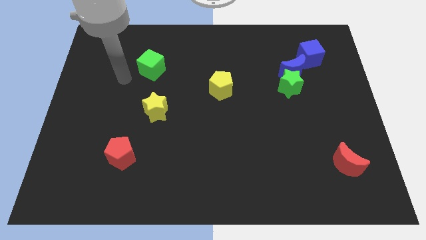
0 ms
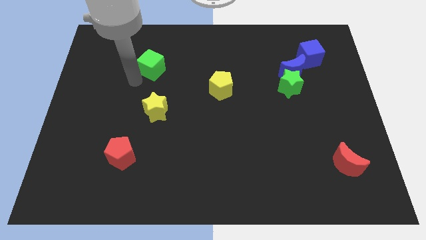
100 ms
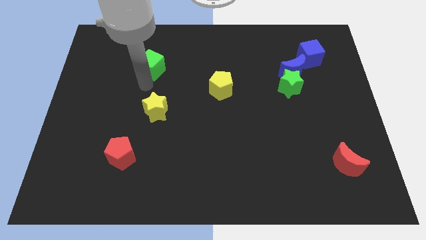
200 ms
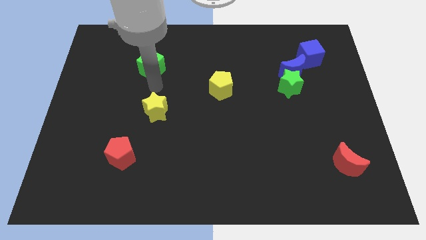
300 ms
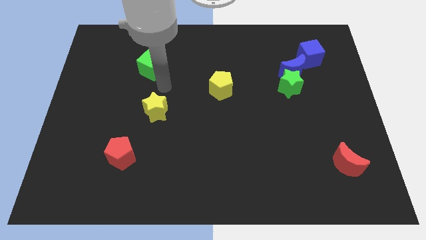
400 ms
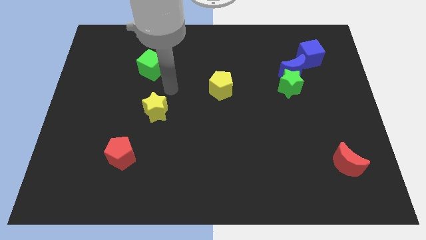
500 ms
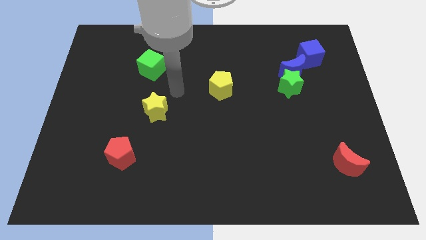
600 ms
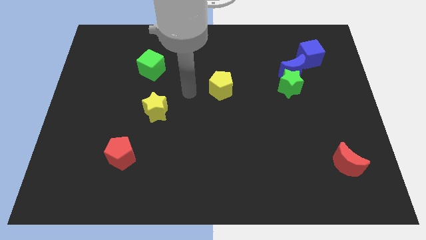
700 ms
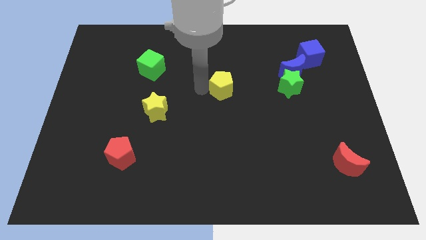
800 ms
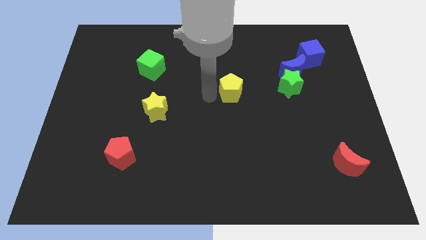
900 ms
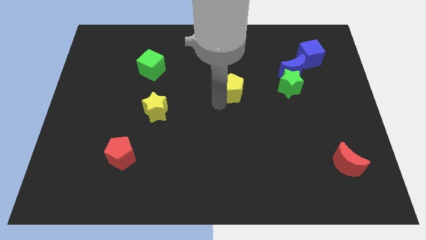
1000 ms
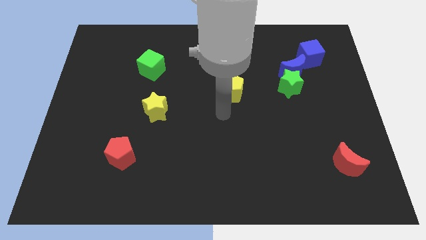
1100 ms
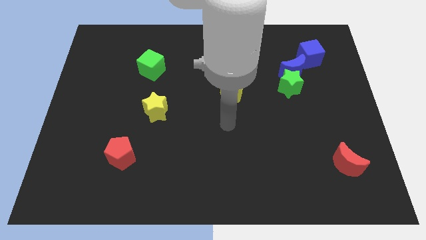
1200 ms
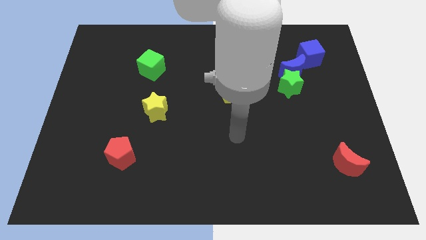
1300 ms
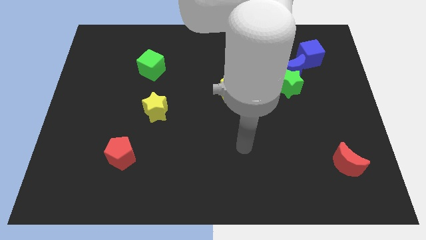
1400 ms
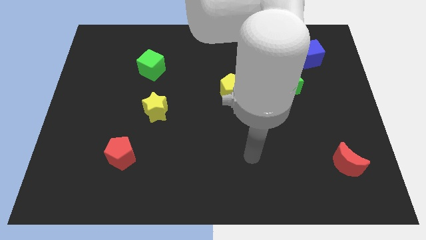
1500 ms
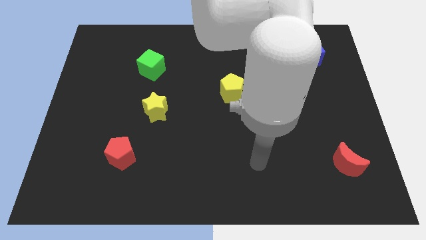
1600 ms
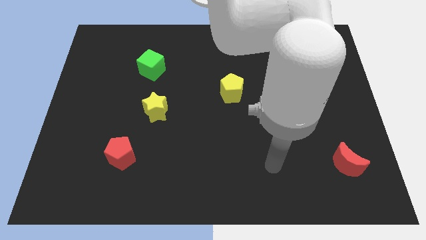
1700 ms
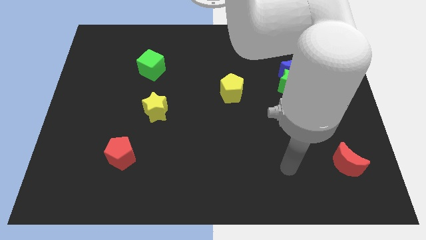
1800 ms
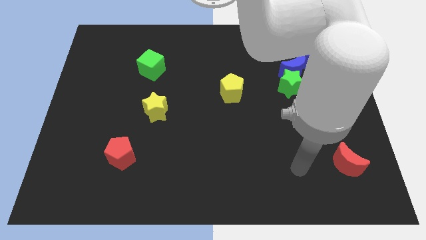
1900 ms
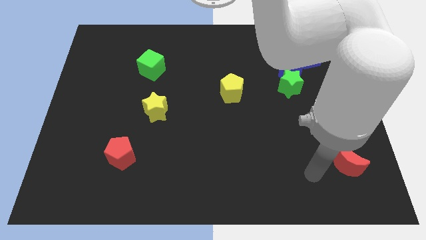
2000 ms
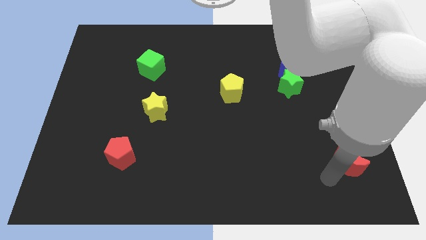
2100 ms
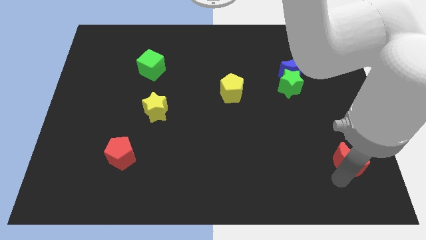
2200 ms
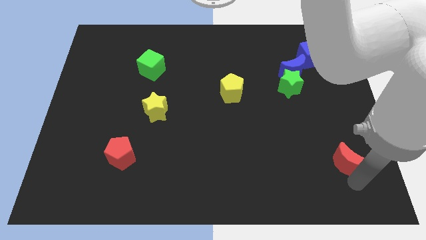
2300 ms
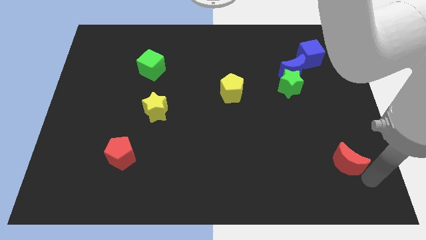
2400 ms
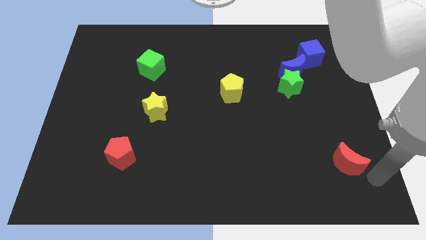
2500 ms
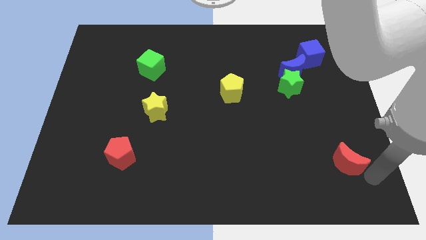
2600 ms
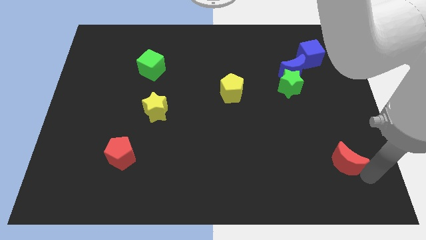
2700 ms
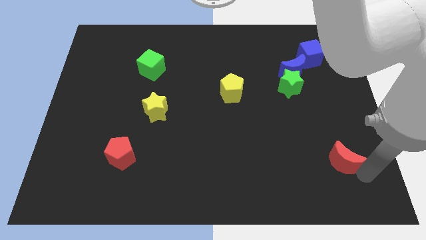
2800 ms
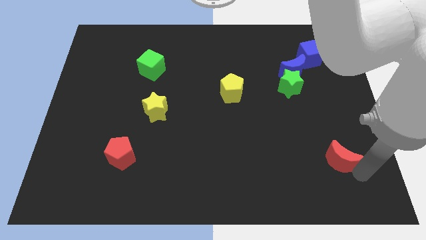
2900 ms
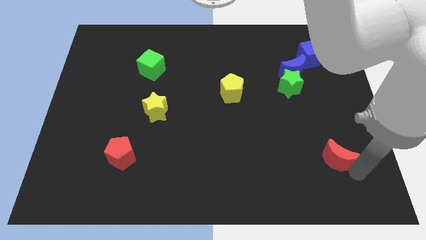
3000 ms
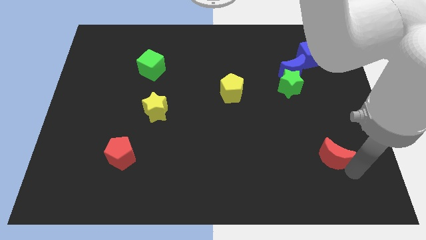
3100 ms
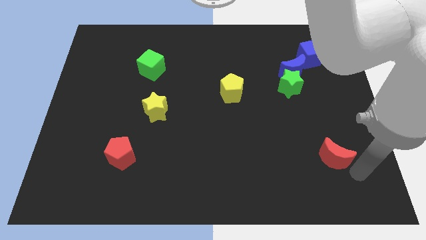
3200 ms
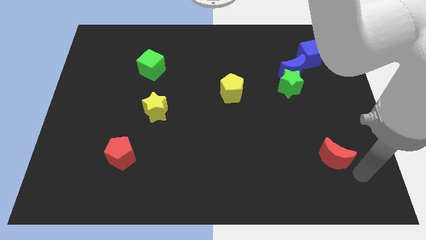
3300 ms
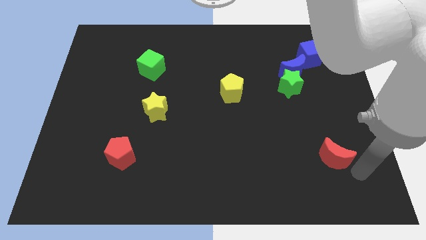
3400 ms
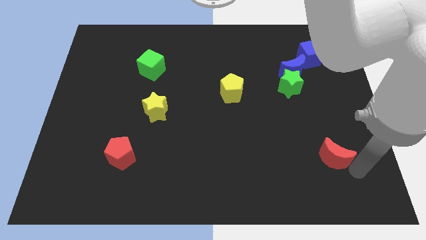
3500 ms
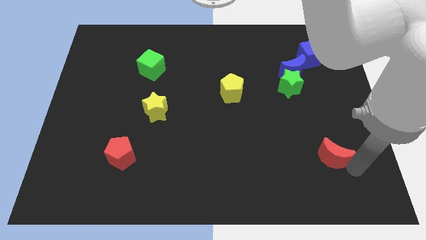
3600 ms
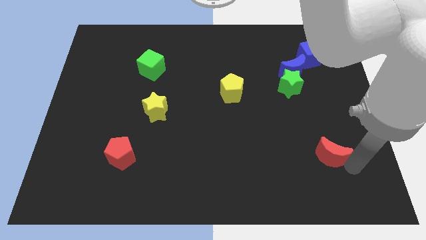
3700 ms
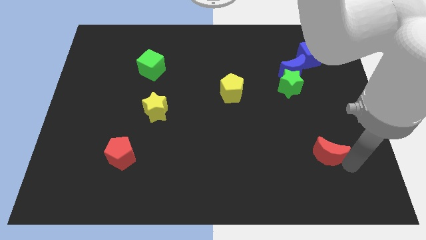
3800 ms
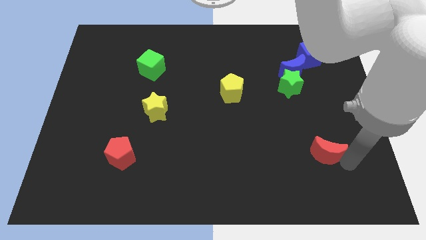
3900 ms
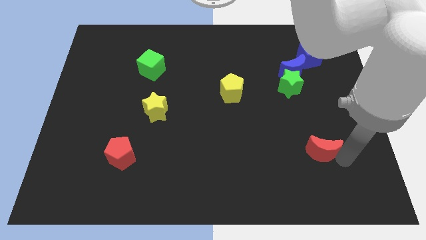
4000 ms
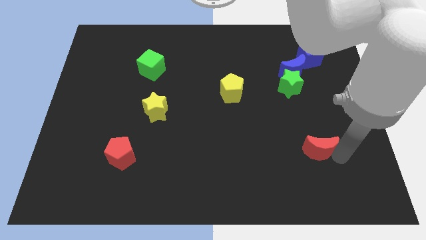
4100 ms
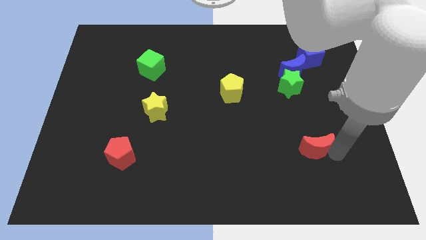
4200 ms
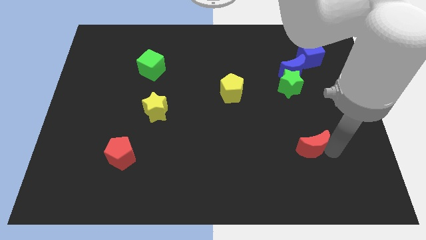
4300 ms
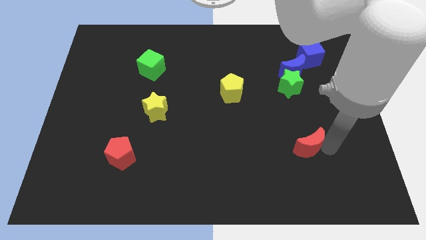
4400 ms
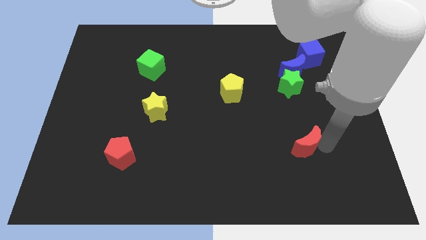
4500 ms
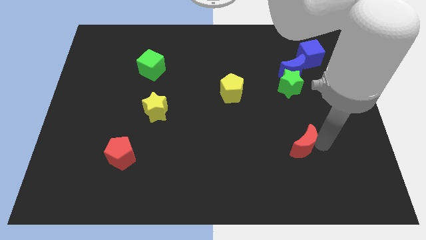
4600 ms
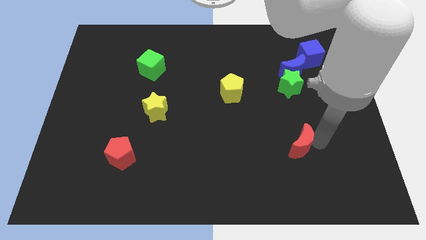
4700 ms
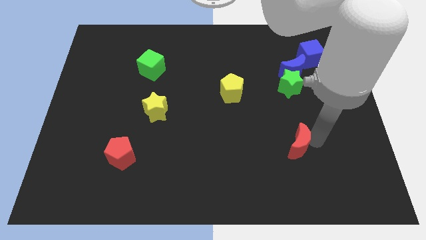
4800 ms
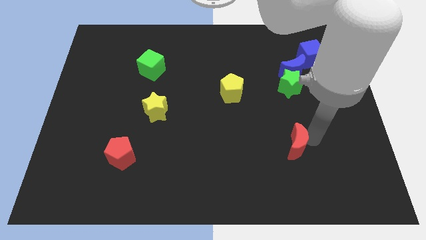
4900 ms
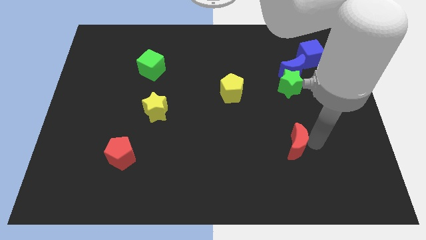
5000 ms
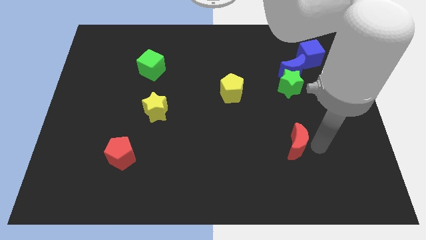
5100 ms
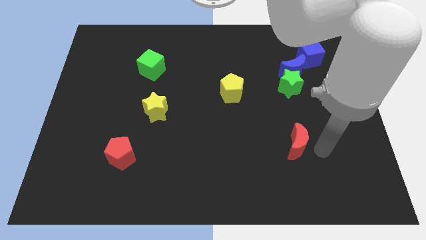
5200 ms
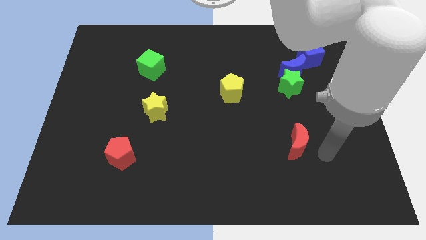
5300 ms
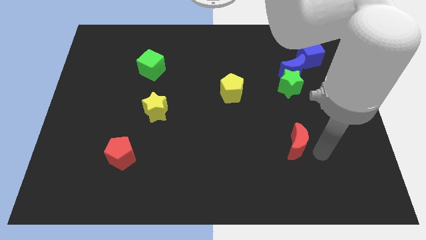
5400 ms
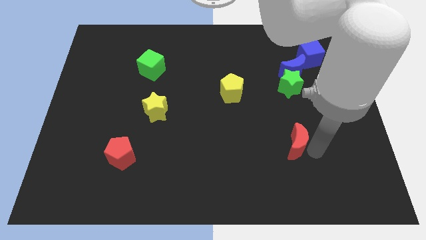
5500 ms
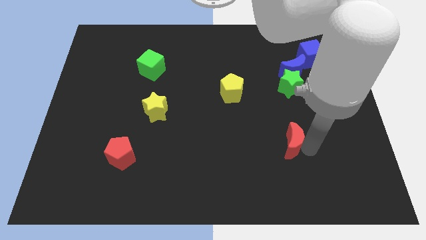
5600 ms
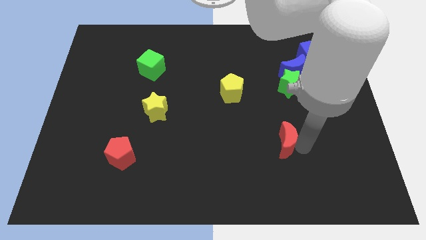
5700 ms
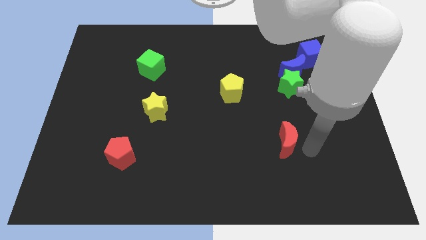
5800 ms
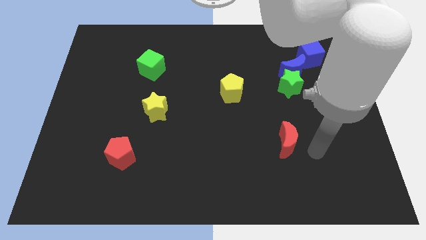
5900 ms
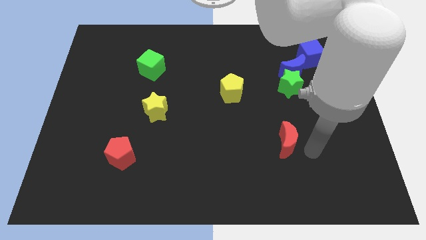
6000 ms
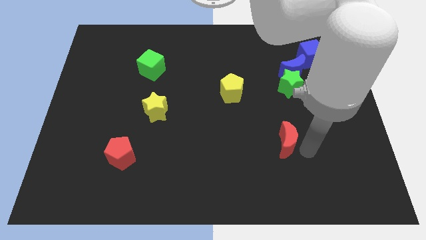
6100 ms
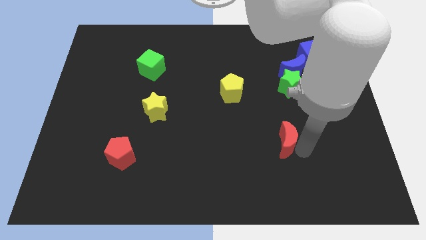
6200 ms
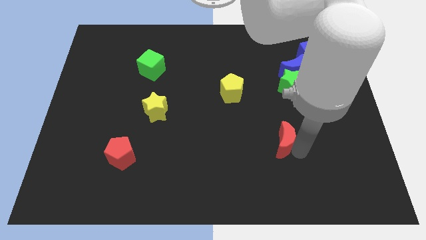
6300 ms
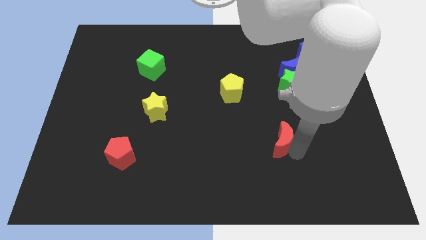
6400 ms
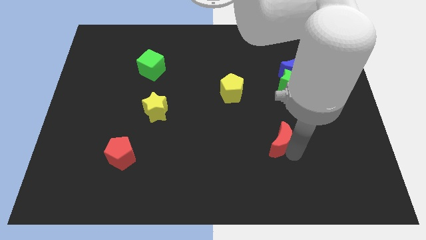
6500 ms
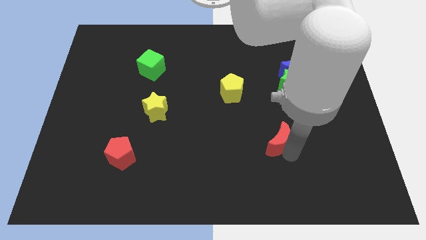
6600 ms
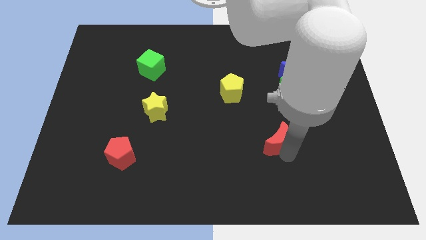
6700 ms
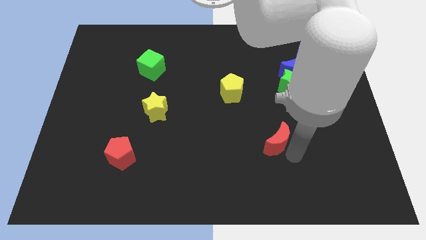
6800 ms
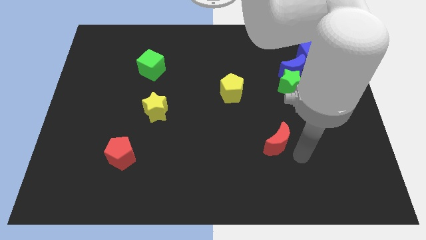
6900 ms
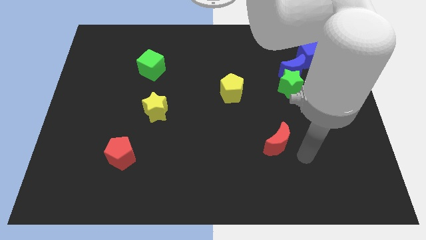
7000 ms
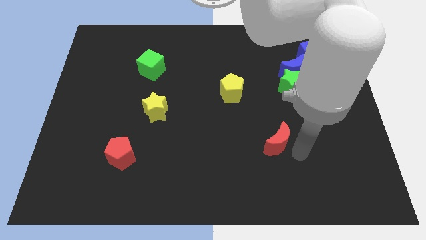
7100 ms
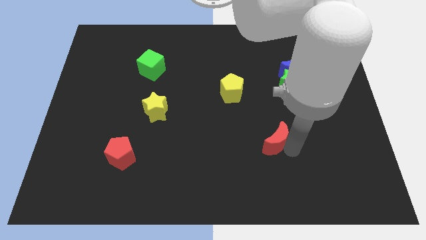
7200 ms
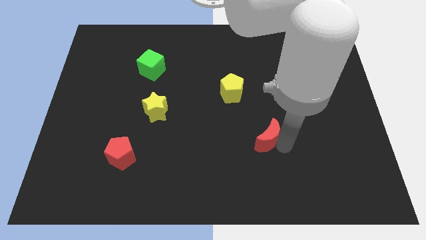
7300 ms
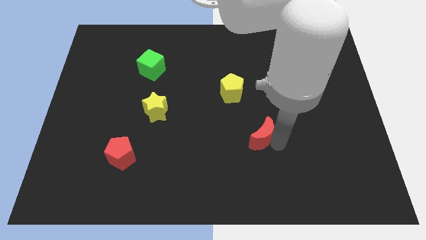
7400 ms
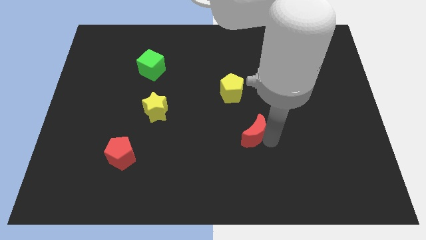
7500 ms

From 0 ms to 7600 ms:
slide the red moon to the bottom side of the yellow pentagon
